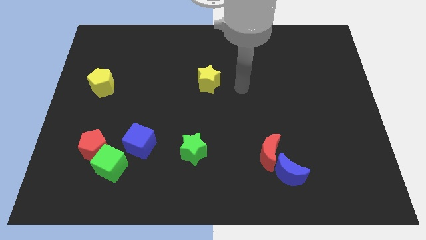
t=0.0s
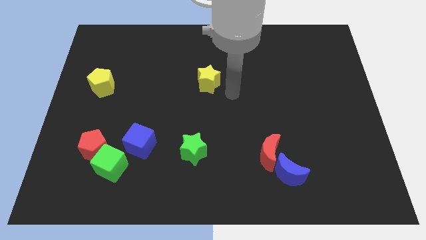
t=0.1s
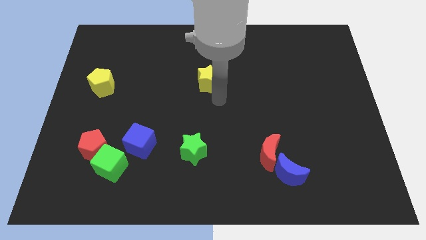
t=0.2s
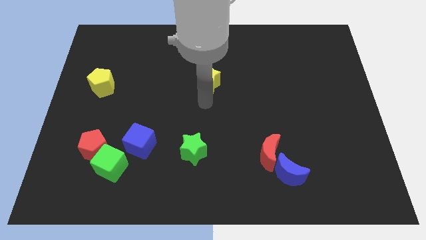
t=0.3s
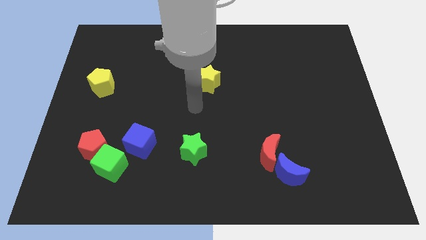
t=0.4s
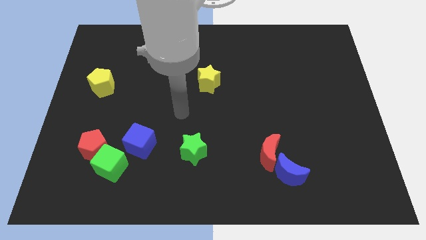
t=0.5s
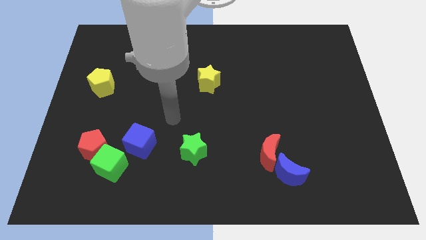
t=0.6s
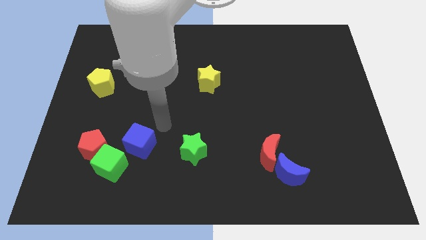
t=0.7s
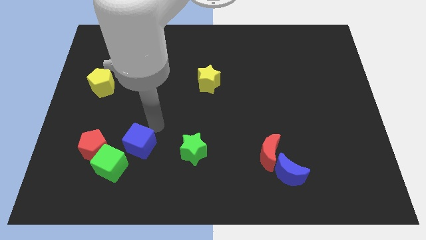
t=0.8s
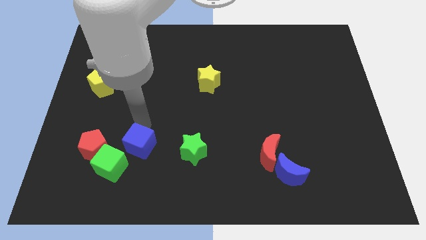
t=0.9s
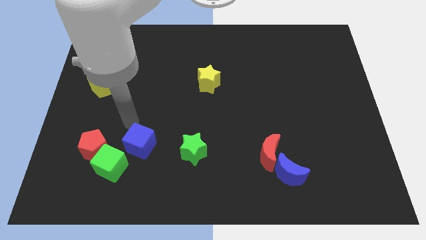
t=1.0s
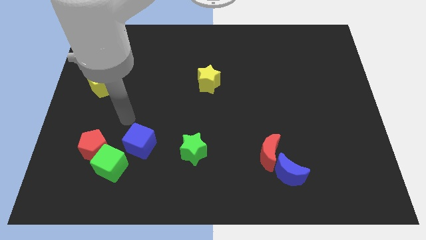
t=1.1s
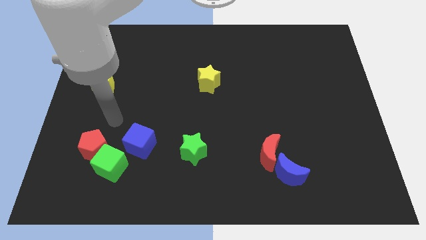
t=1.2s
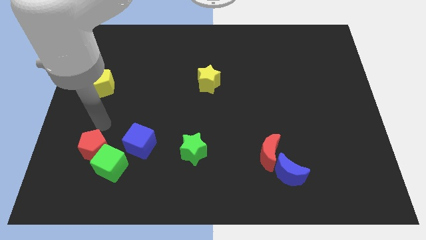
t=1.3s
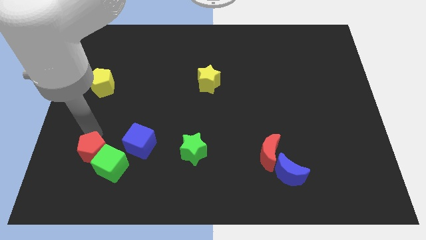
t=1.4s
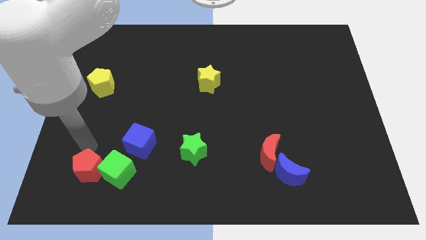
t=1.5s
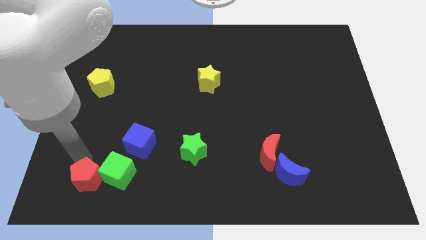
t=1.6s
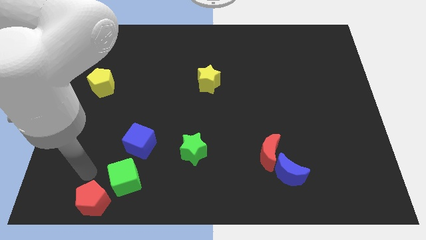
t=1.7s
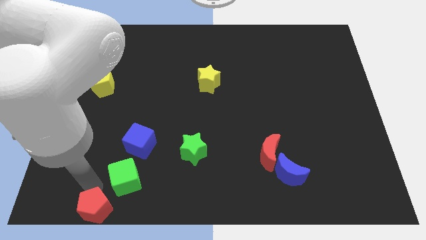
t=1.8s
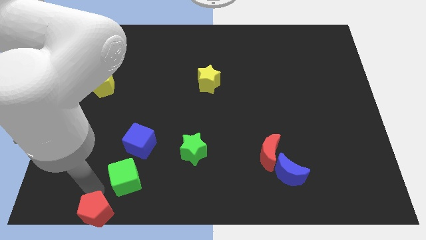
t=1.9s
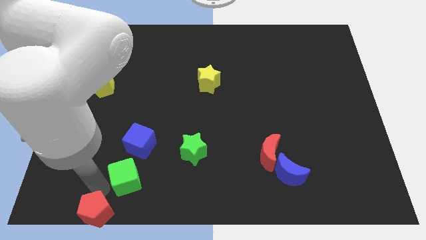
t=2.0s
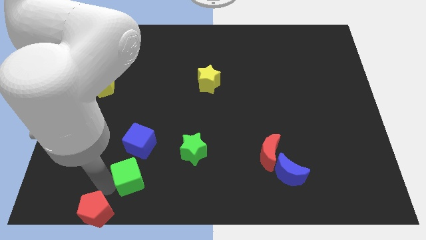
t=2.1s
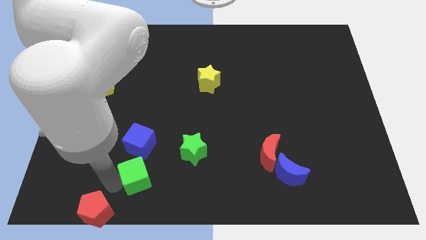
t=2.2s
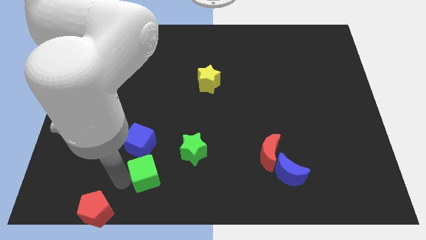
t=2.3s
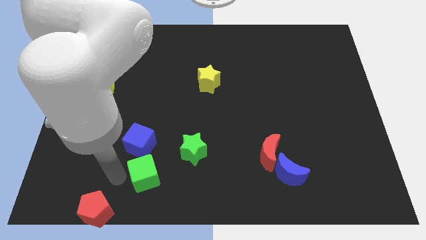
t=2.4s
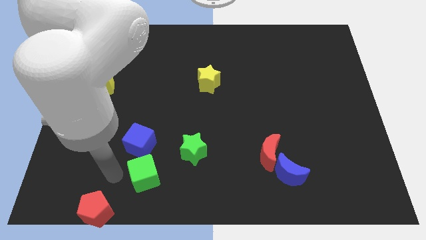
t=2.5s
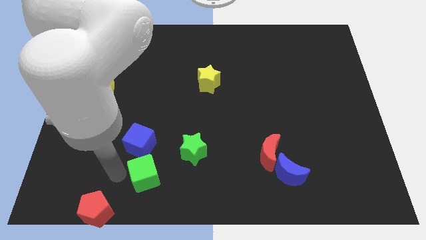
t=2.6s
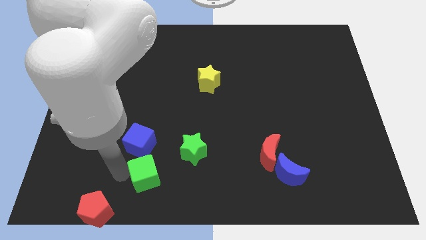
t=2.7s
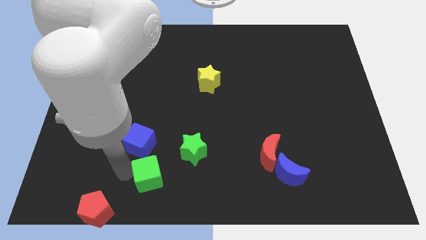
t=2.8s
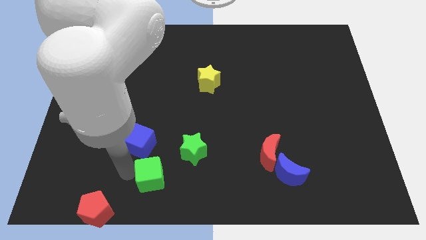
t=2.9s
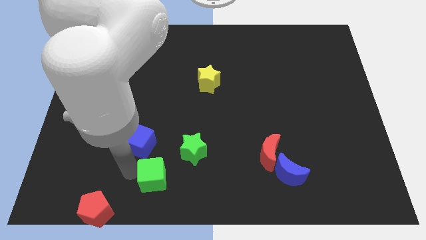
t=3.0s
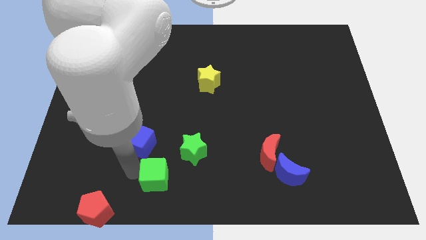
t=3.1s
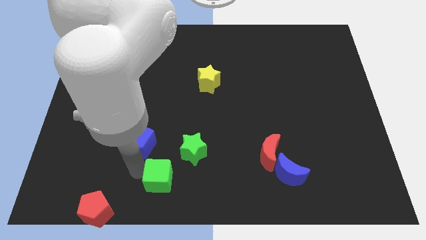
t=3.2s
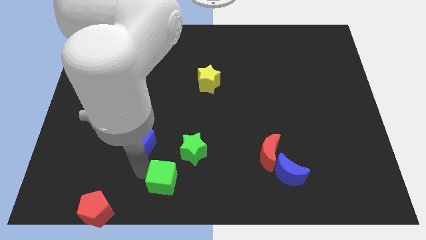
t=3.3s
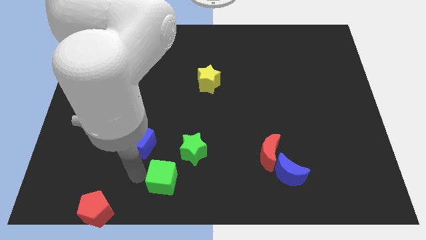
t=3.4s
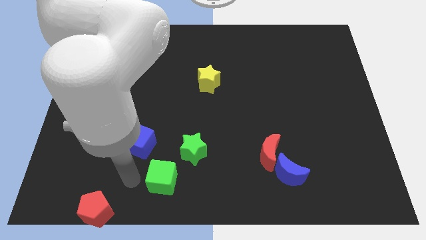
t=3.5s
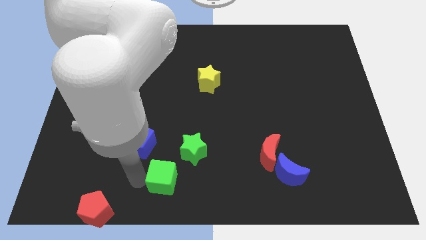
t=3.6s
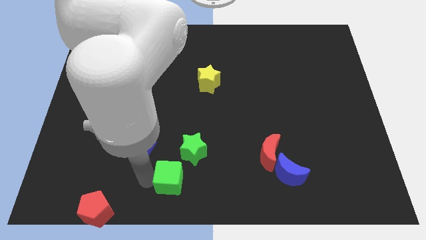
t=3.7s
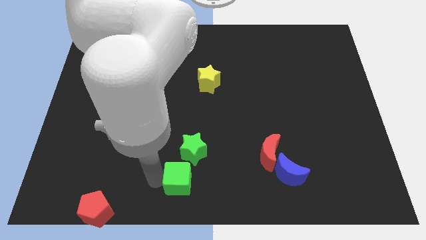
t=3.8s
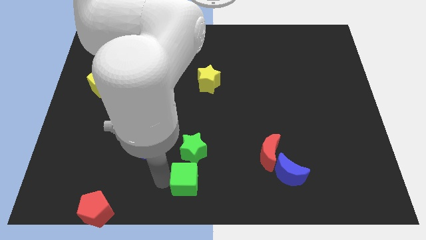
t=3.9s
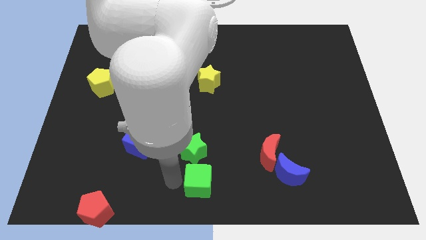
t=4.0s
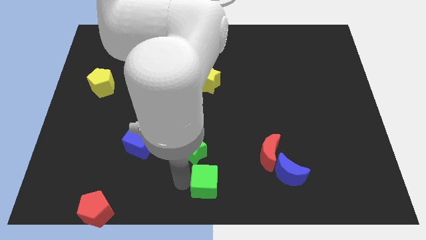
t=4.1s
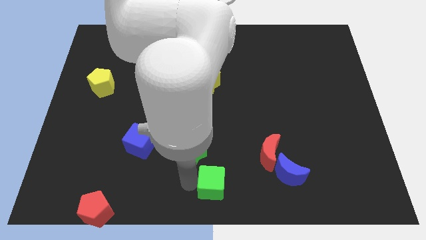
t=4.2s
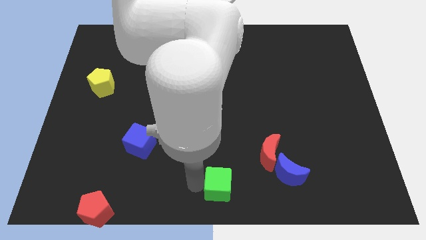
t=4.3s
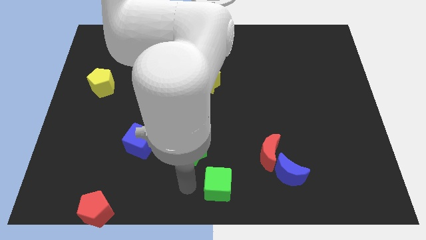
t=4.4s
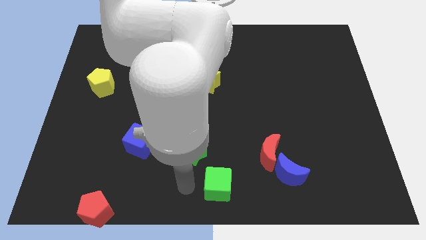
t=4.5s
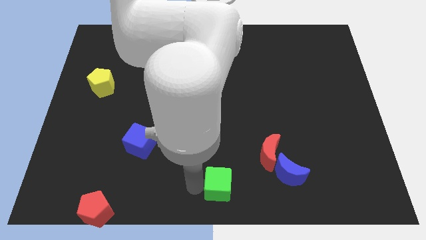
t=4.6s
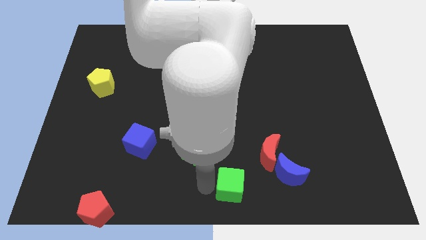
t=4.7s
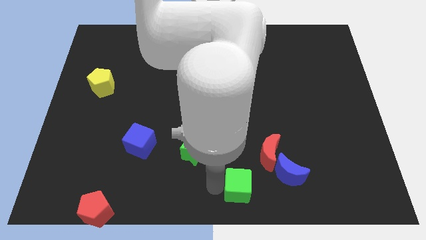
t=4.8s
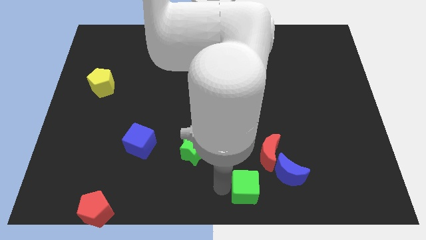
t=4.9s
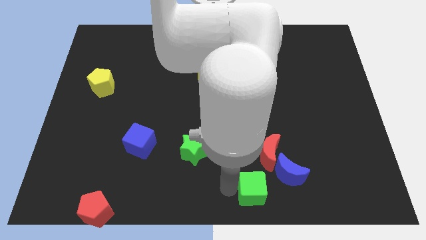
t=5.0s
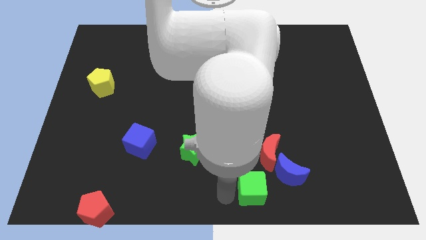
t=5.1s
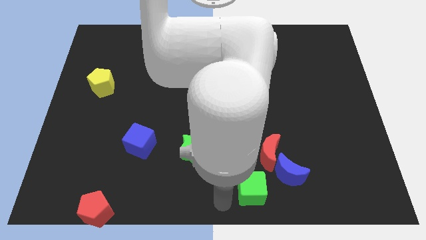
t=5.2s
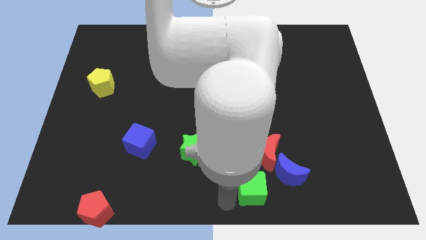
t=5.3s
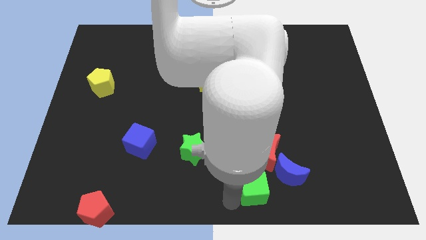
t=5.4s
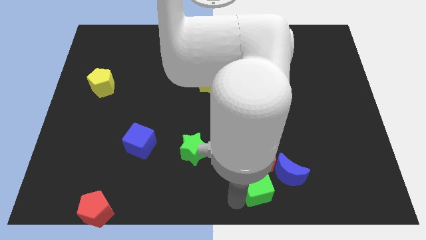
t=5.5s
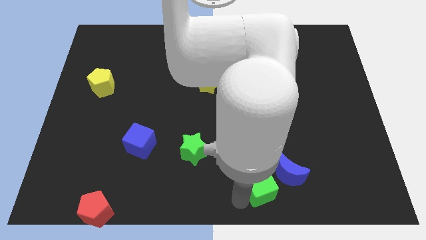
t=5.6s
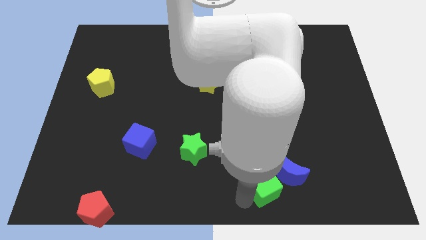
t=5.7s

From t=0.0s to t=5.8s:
slide the green cube towards the blue moon

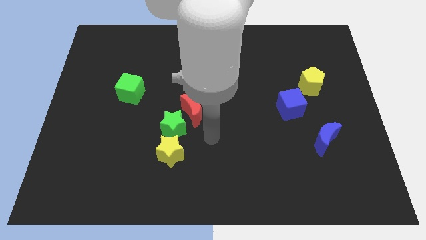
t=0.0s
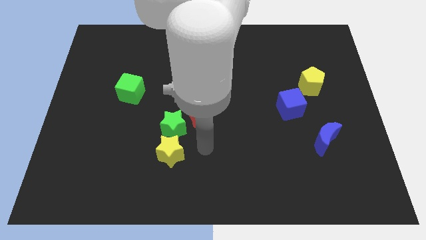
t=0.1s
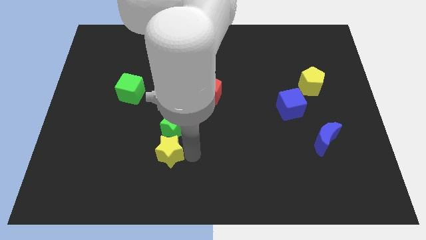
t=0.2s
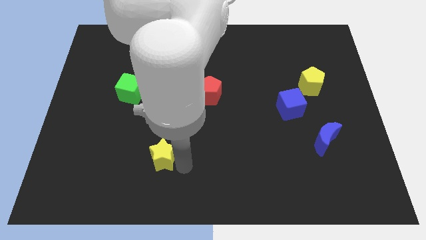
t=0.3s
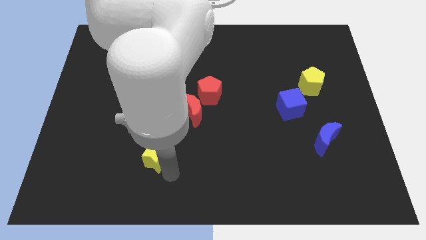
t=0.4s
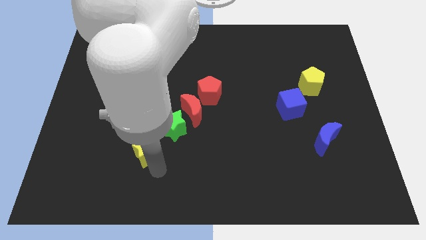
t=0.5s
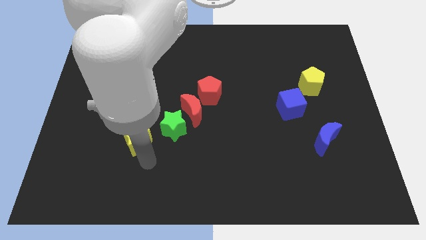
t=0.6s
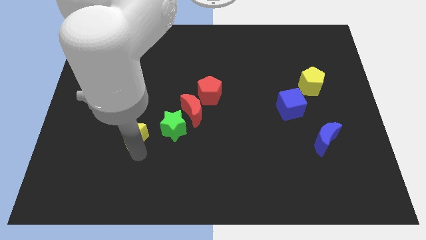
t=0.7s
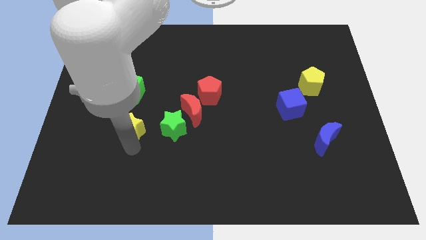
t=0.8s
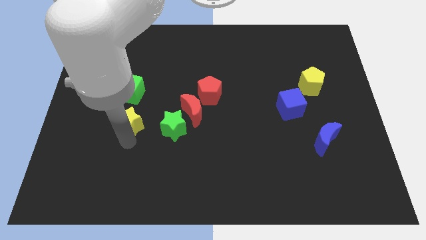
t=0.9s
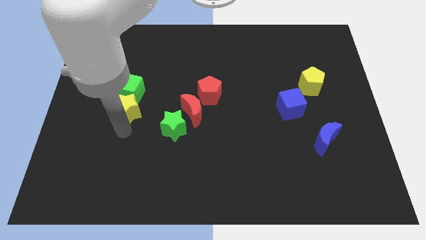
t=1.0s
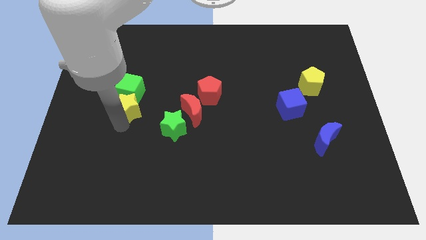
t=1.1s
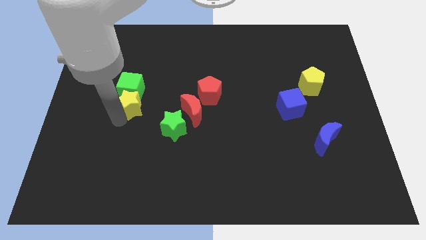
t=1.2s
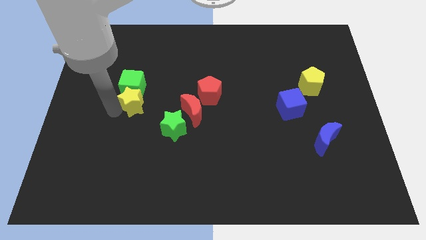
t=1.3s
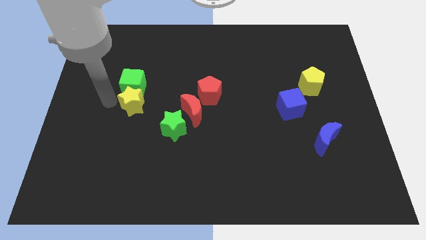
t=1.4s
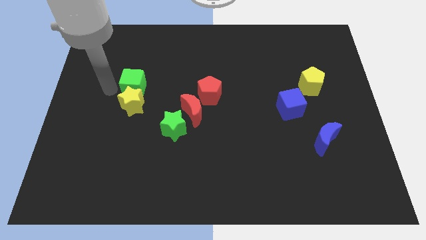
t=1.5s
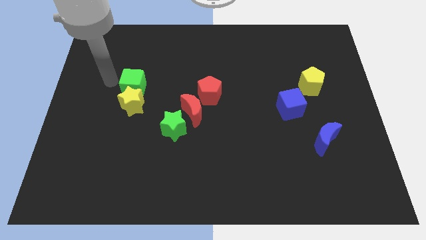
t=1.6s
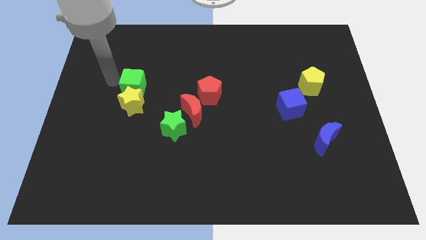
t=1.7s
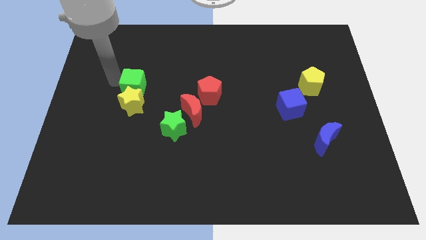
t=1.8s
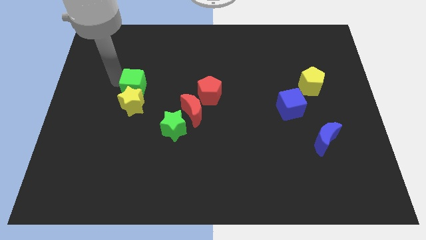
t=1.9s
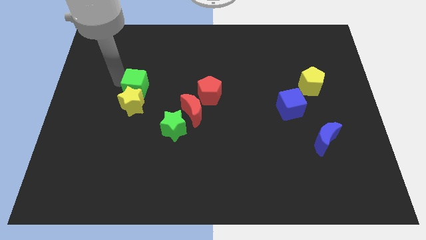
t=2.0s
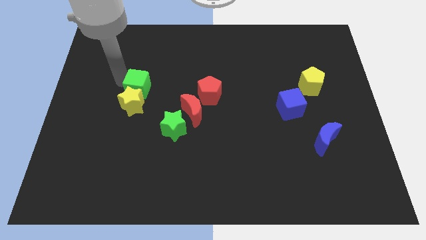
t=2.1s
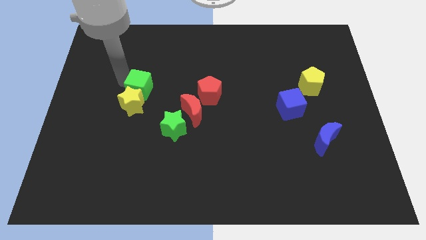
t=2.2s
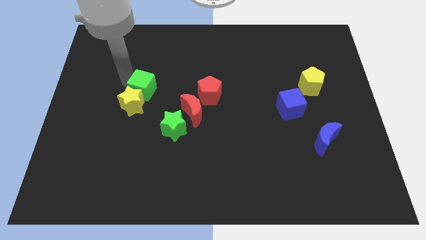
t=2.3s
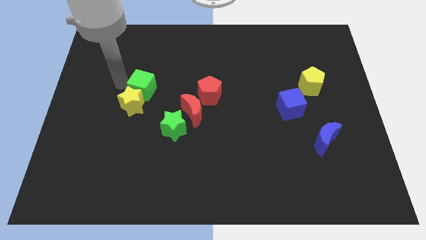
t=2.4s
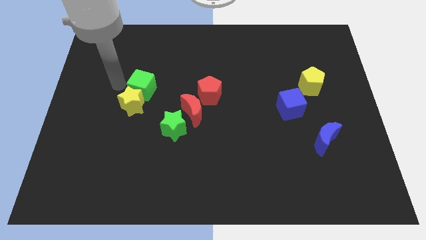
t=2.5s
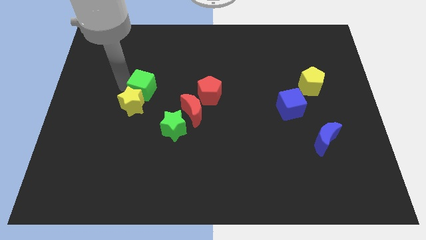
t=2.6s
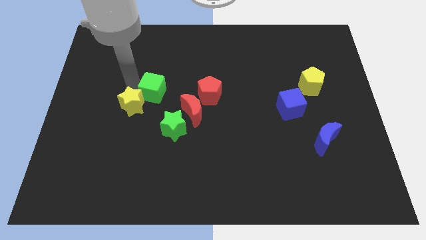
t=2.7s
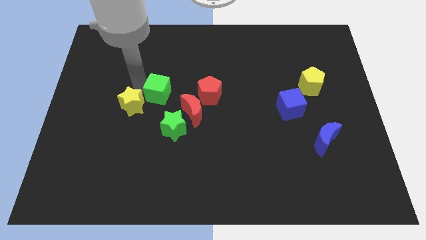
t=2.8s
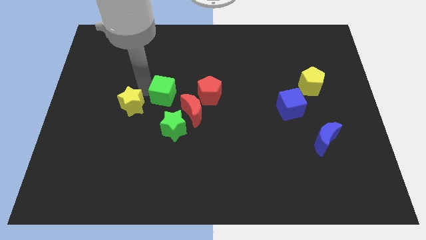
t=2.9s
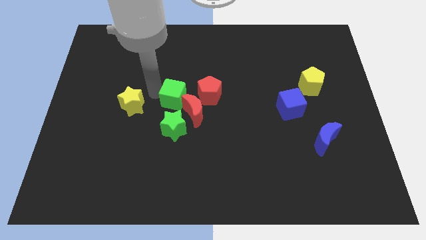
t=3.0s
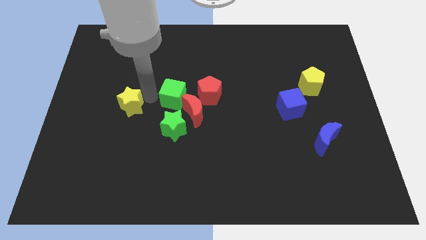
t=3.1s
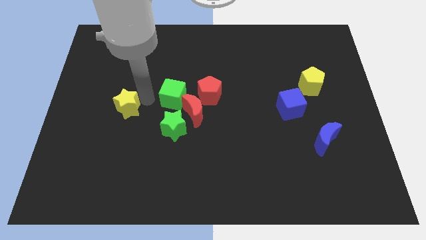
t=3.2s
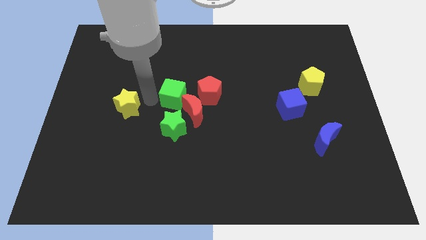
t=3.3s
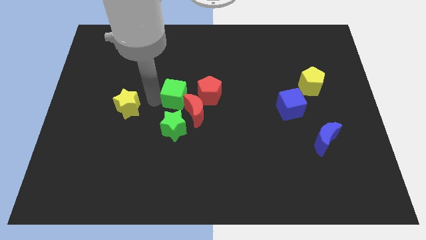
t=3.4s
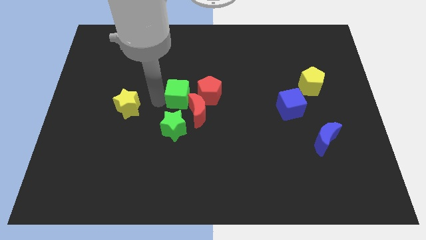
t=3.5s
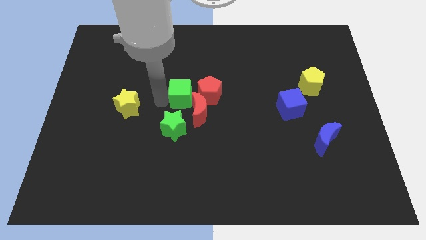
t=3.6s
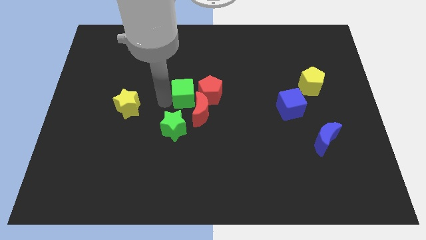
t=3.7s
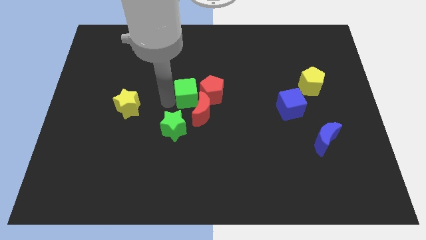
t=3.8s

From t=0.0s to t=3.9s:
slide the green cube close to the red pentagon
